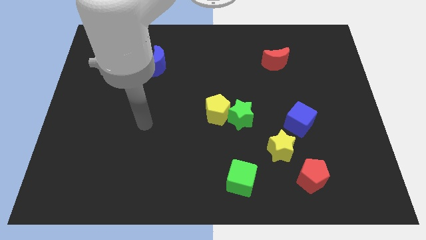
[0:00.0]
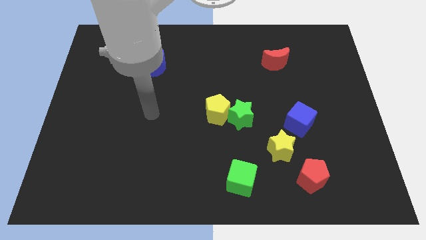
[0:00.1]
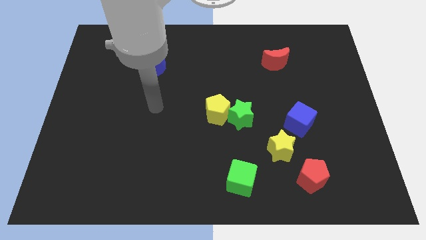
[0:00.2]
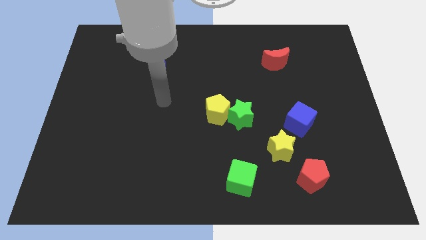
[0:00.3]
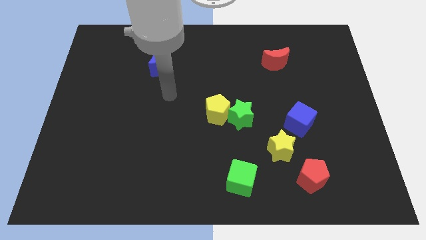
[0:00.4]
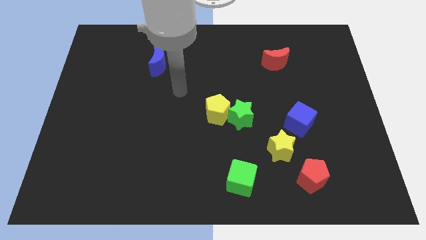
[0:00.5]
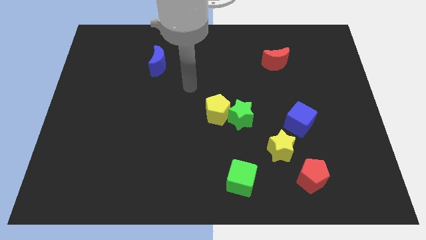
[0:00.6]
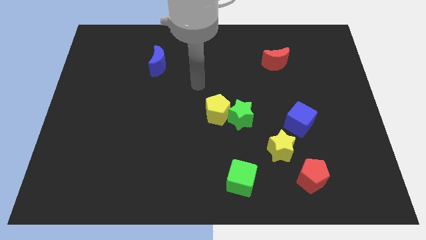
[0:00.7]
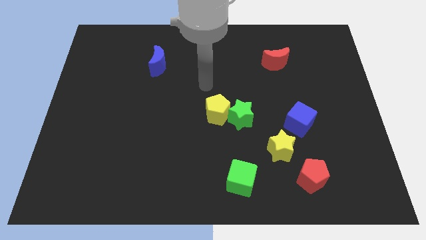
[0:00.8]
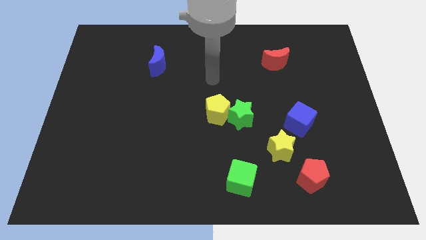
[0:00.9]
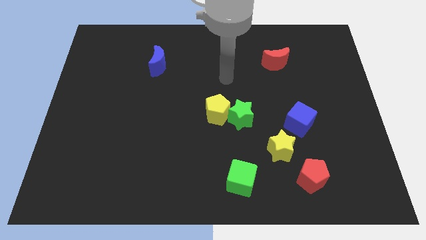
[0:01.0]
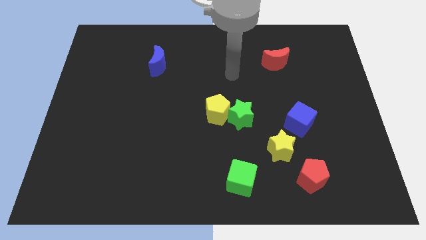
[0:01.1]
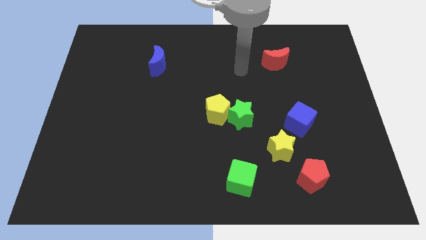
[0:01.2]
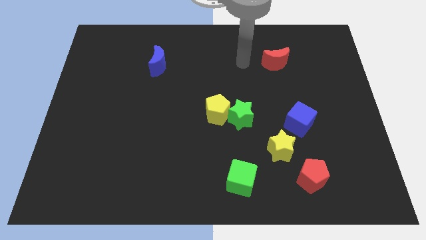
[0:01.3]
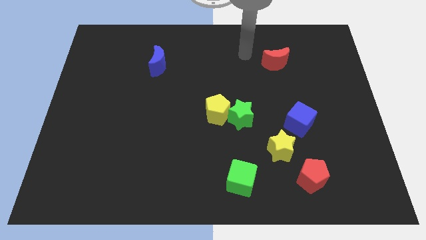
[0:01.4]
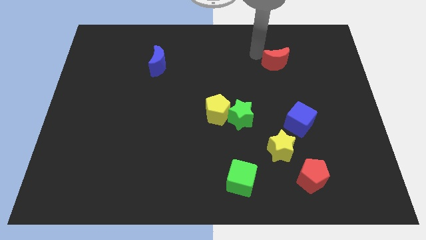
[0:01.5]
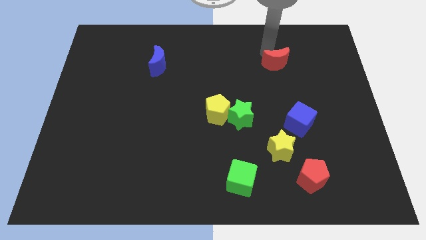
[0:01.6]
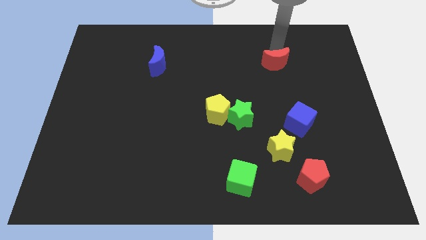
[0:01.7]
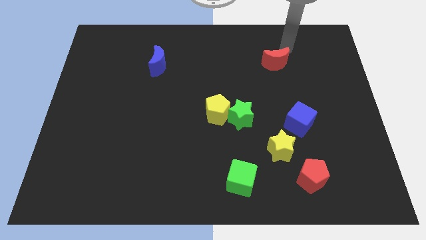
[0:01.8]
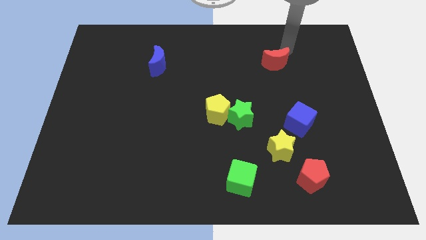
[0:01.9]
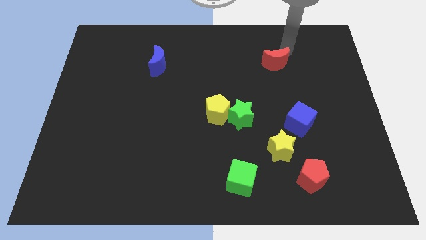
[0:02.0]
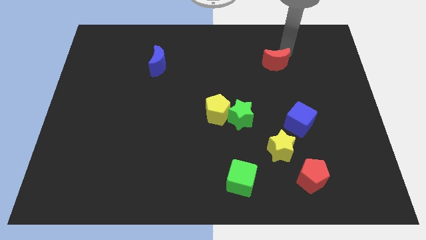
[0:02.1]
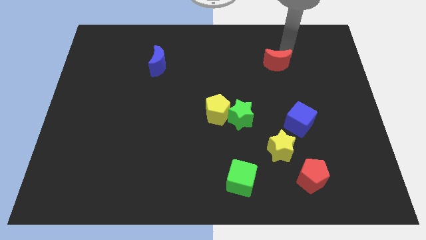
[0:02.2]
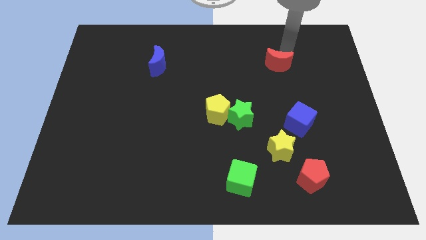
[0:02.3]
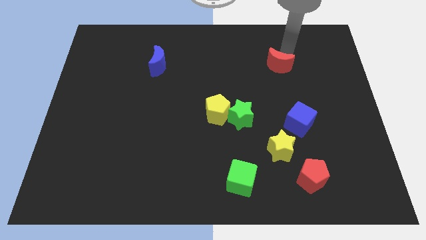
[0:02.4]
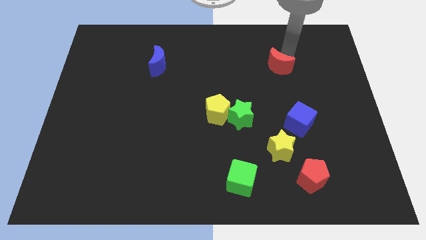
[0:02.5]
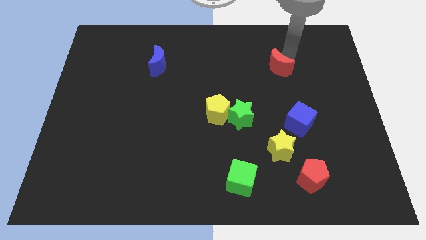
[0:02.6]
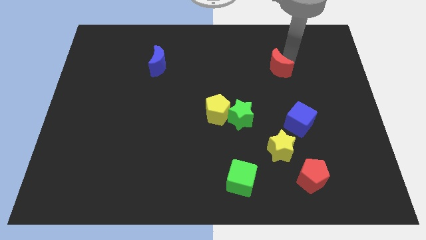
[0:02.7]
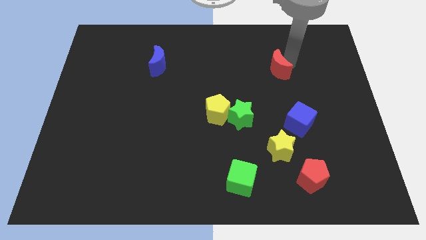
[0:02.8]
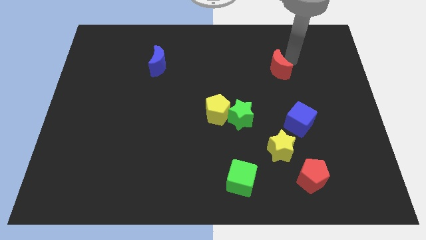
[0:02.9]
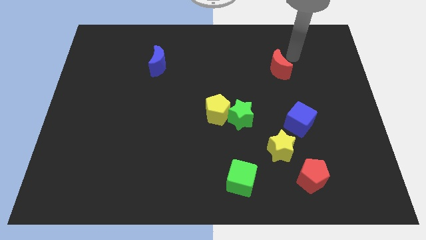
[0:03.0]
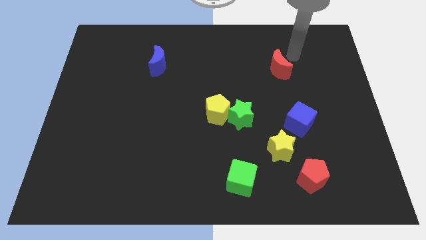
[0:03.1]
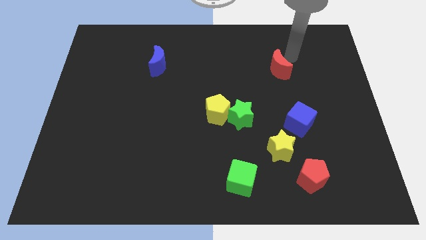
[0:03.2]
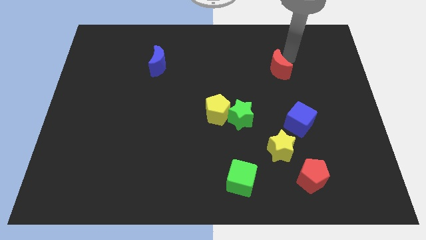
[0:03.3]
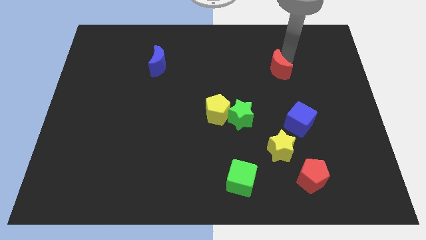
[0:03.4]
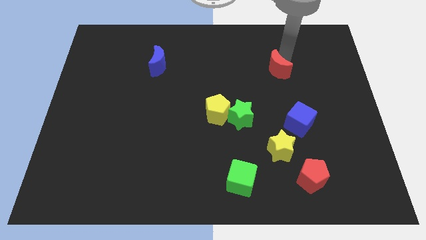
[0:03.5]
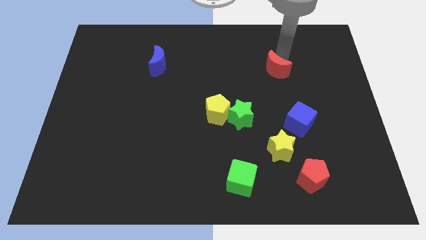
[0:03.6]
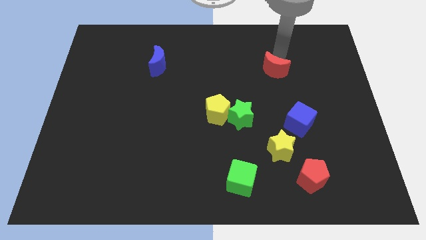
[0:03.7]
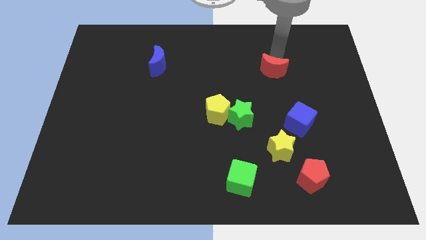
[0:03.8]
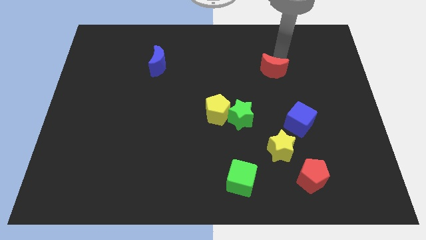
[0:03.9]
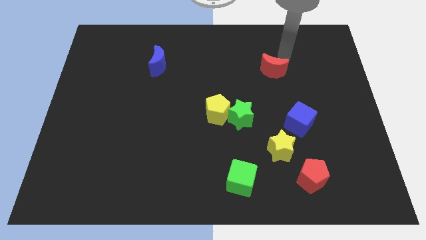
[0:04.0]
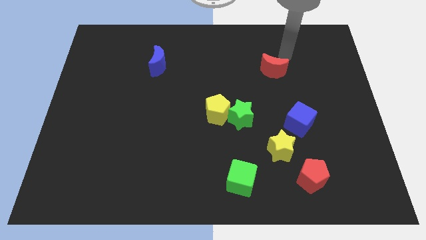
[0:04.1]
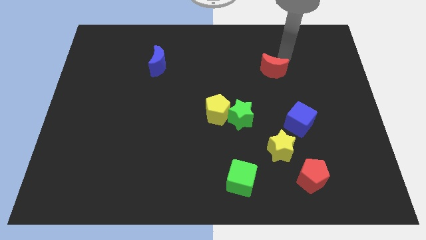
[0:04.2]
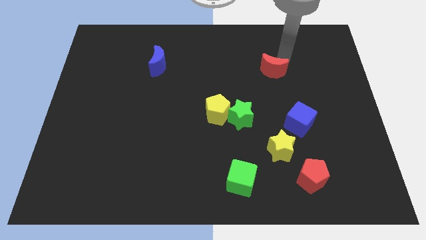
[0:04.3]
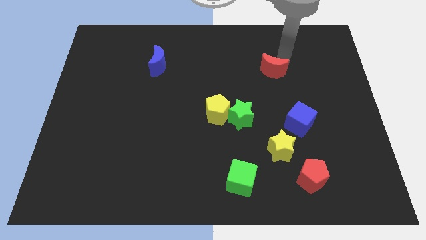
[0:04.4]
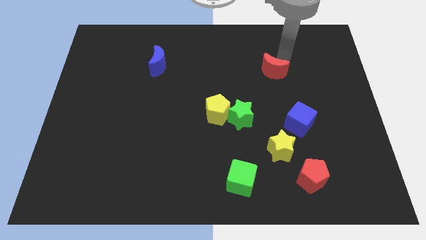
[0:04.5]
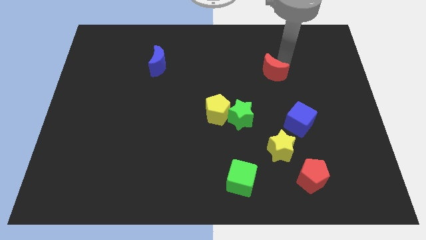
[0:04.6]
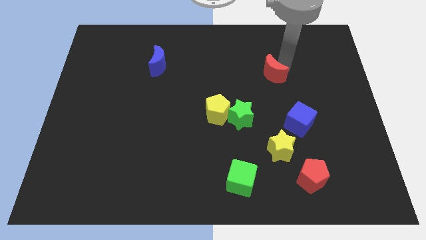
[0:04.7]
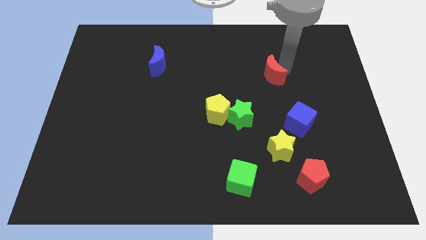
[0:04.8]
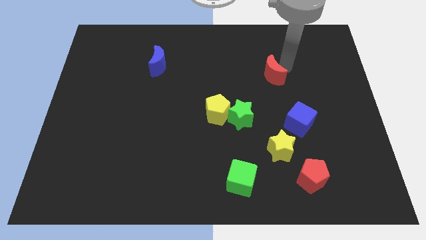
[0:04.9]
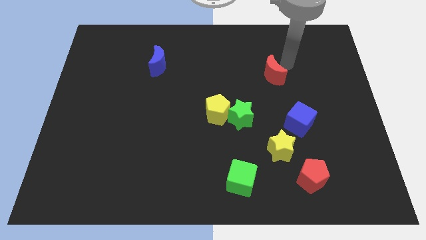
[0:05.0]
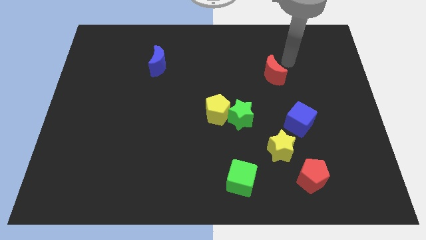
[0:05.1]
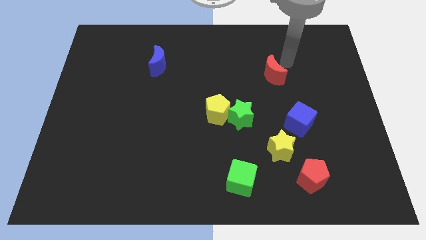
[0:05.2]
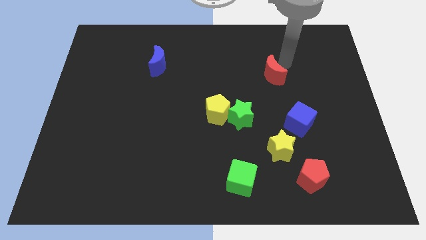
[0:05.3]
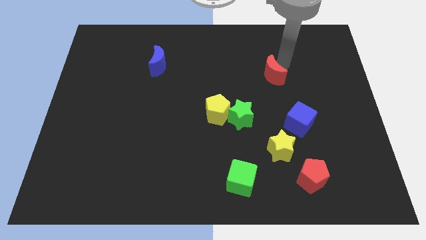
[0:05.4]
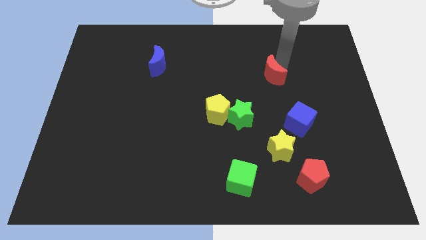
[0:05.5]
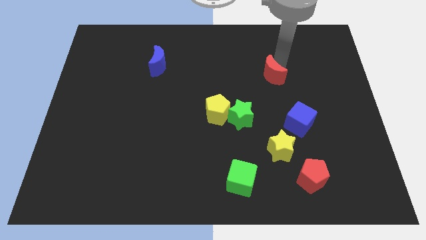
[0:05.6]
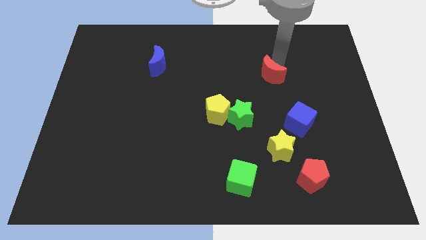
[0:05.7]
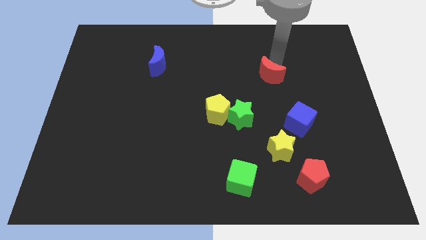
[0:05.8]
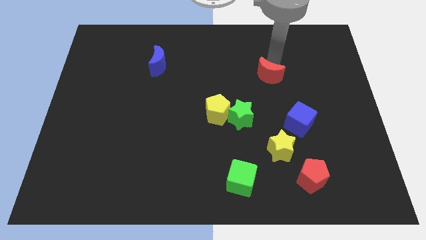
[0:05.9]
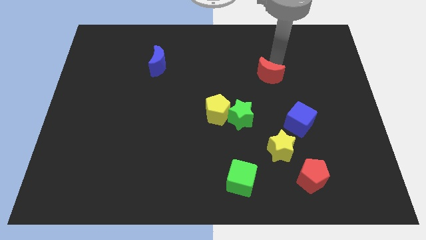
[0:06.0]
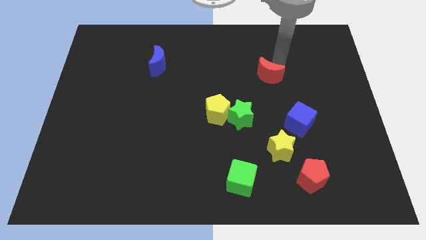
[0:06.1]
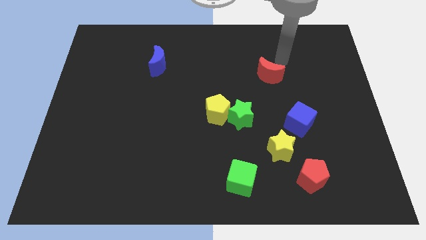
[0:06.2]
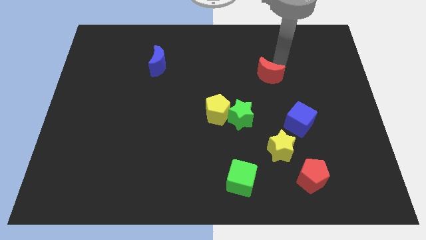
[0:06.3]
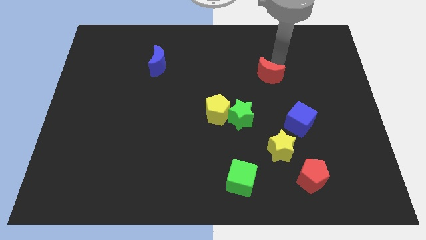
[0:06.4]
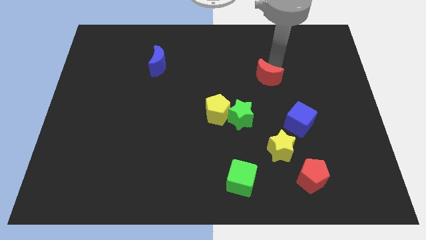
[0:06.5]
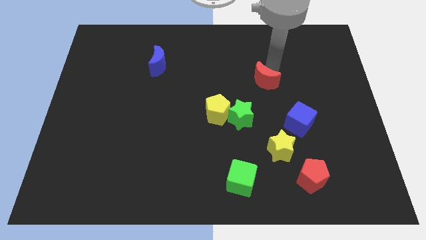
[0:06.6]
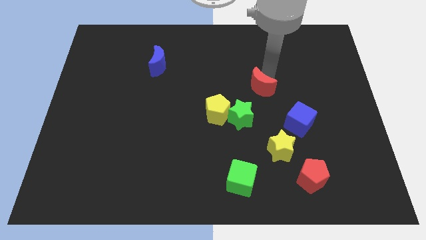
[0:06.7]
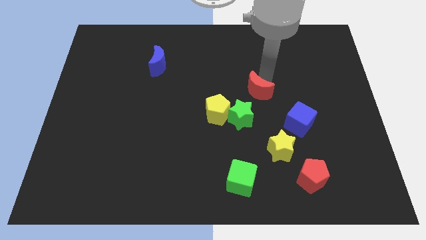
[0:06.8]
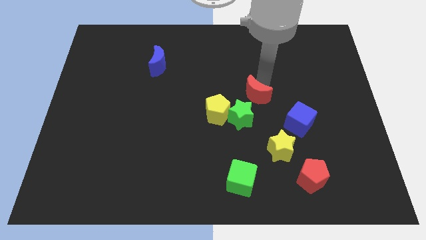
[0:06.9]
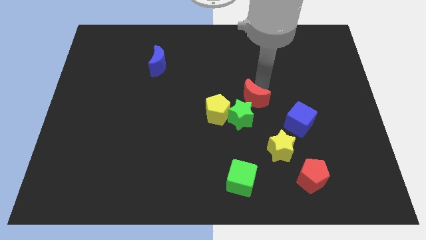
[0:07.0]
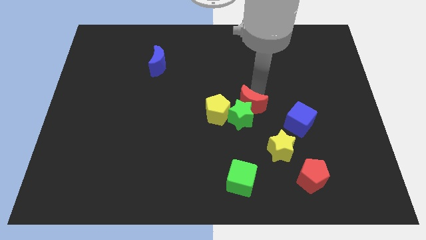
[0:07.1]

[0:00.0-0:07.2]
slide the red moon towards the green star

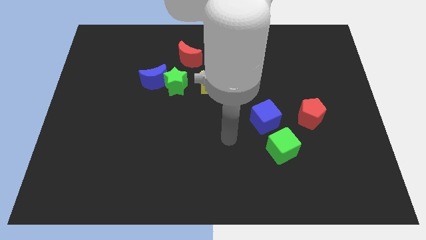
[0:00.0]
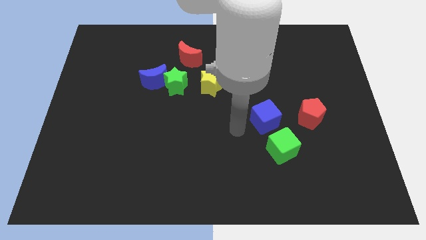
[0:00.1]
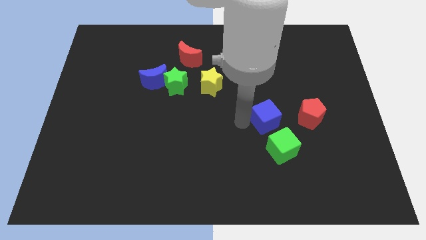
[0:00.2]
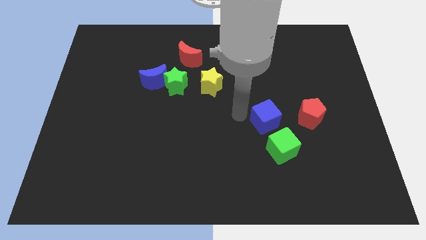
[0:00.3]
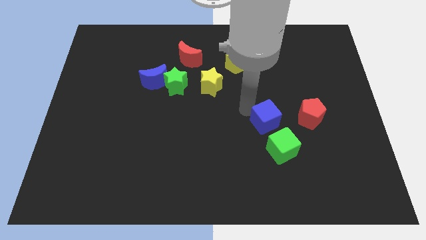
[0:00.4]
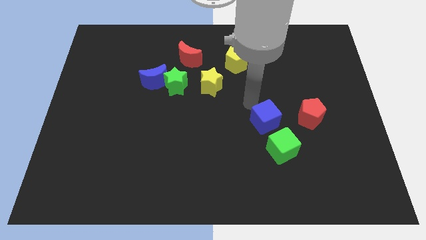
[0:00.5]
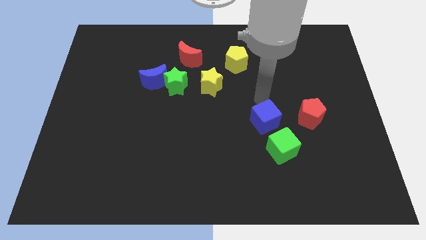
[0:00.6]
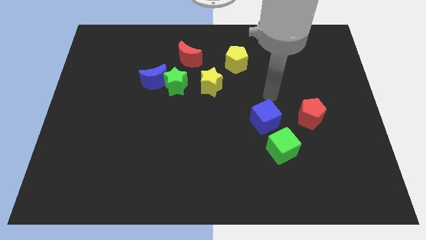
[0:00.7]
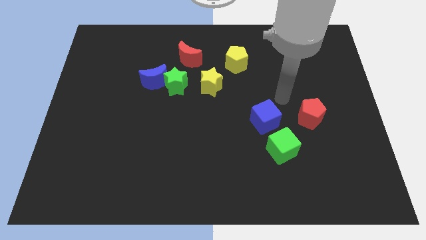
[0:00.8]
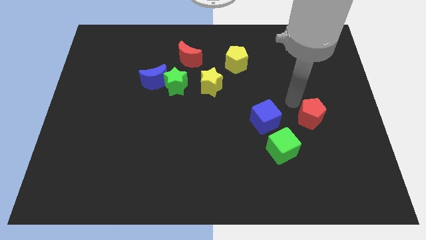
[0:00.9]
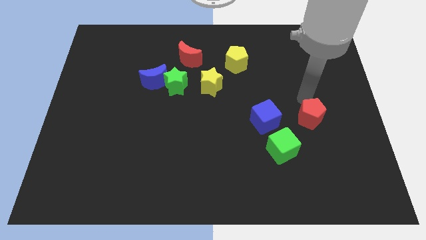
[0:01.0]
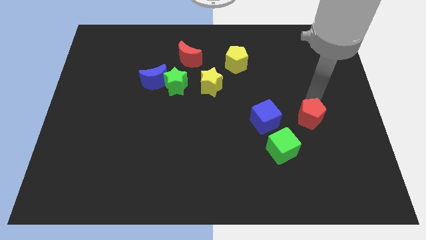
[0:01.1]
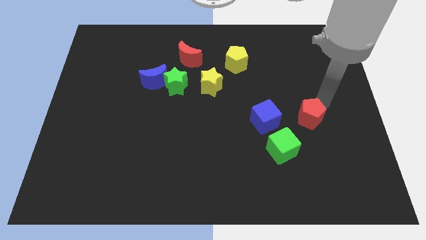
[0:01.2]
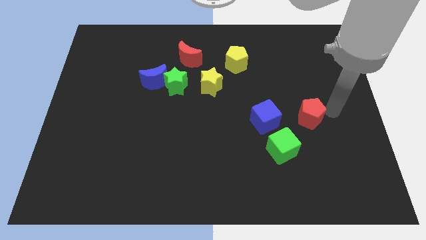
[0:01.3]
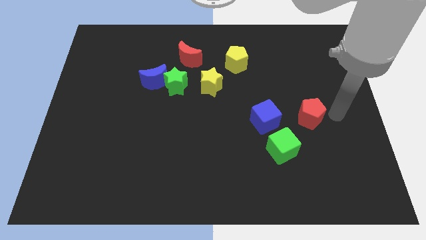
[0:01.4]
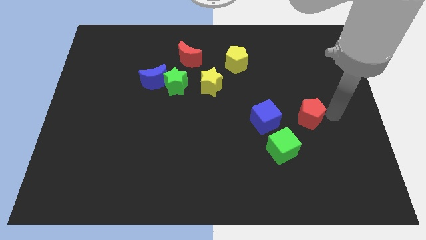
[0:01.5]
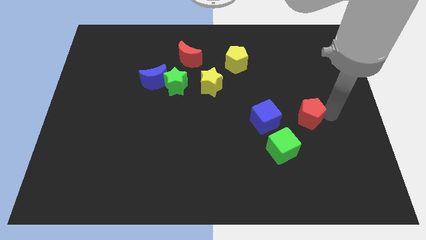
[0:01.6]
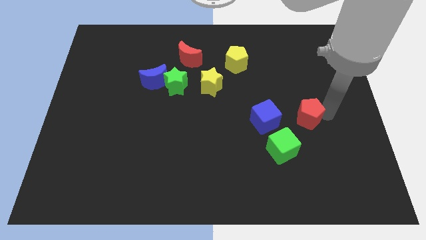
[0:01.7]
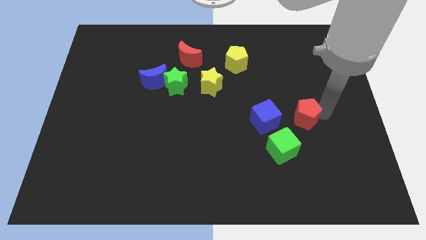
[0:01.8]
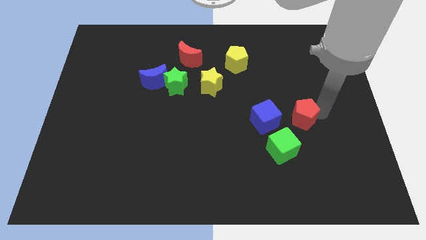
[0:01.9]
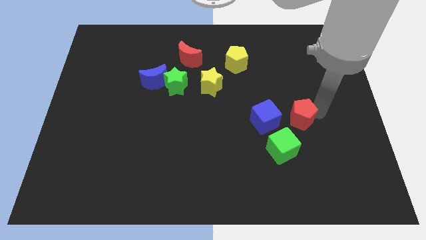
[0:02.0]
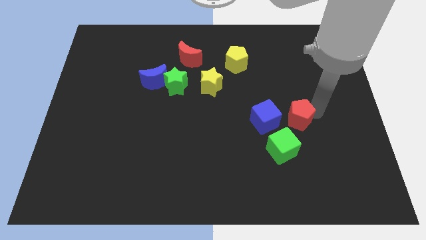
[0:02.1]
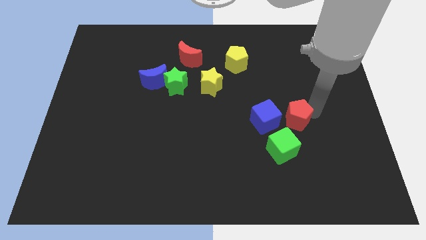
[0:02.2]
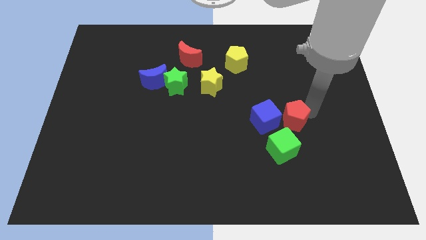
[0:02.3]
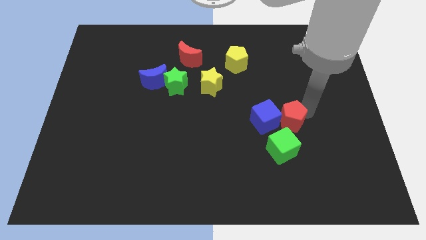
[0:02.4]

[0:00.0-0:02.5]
push the red pentagon next to the blue cube
